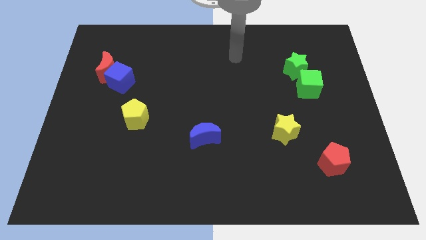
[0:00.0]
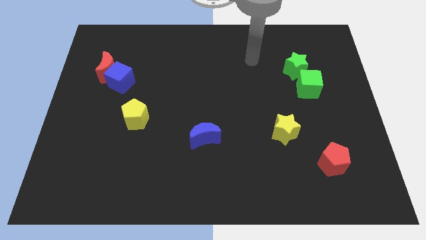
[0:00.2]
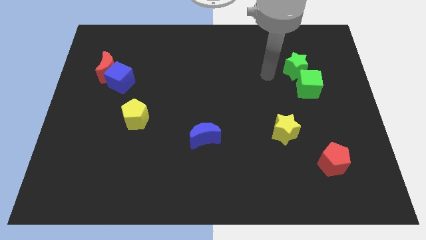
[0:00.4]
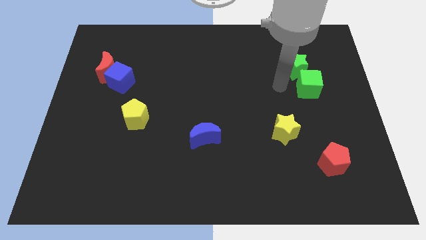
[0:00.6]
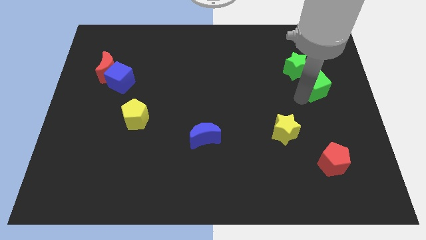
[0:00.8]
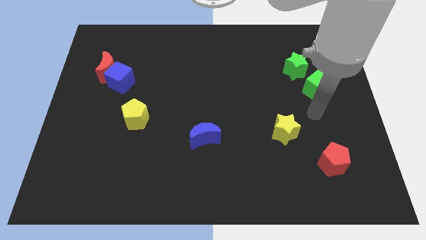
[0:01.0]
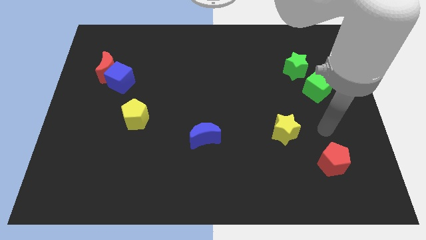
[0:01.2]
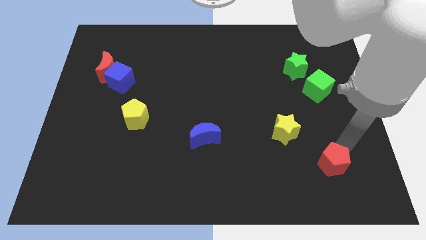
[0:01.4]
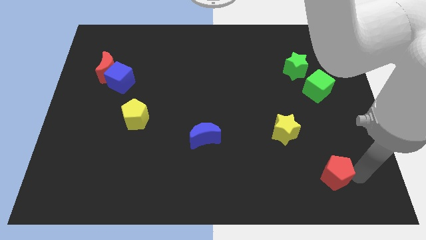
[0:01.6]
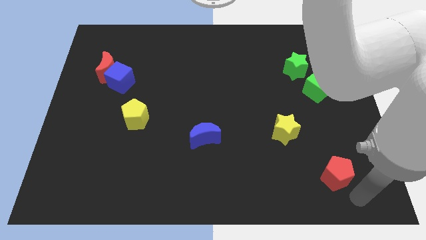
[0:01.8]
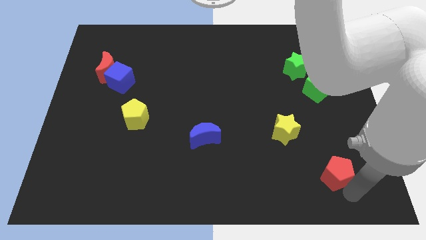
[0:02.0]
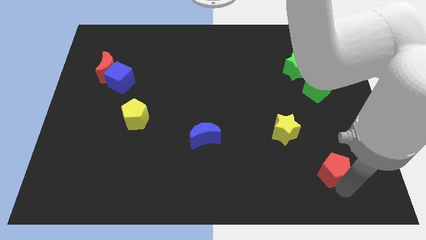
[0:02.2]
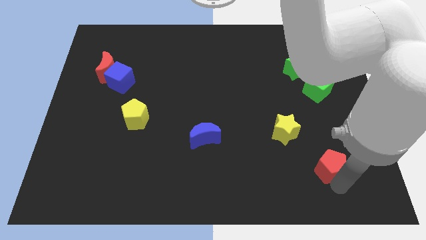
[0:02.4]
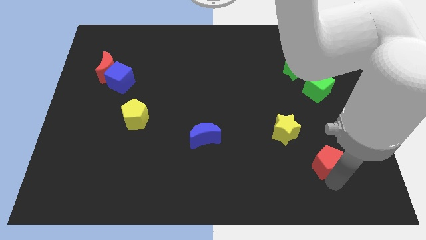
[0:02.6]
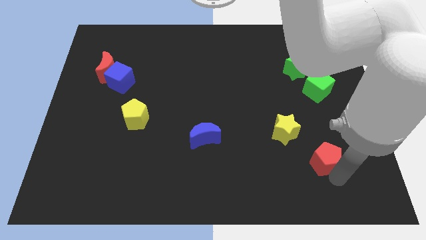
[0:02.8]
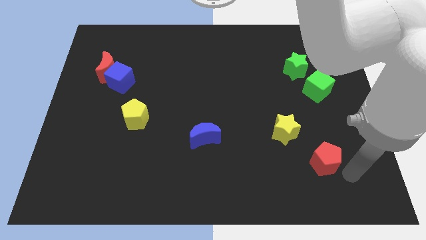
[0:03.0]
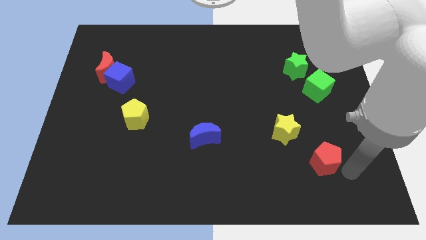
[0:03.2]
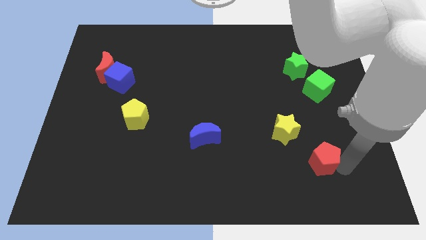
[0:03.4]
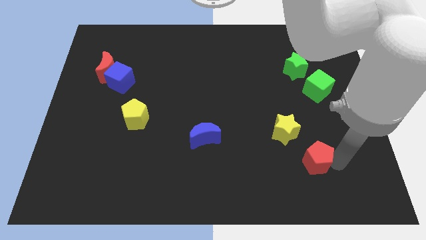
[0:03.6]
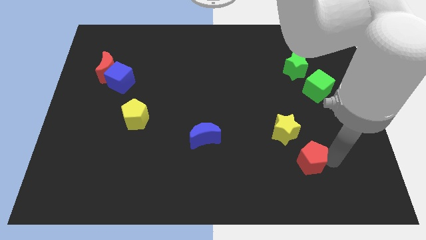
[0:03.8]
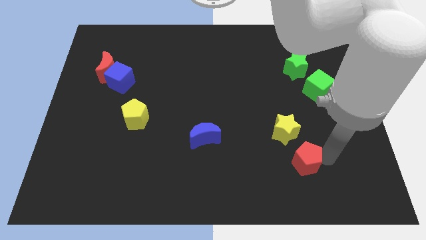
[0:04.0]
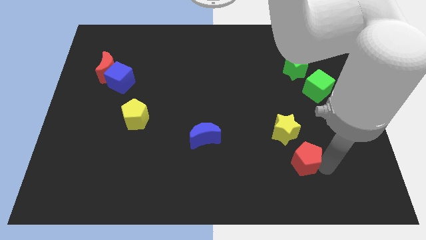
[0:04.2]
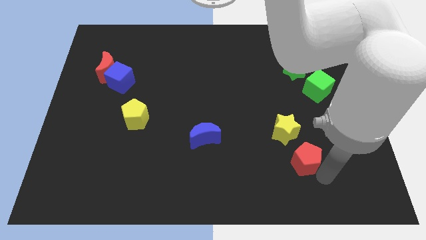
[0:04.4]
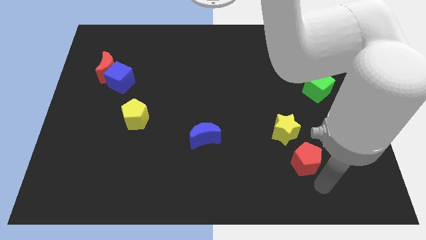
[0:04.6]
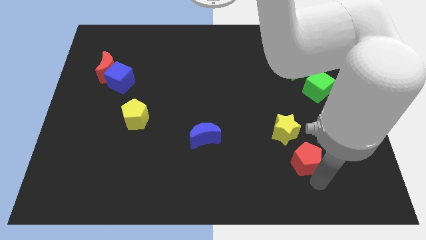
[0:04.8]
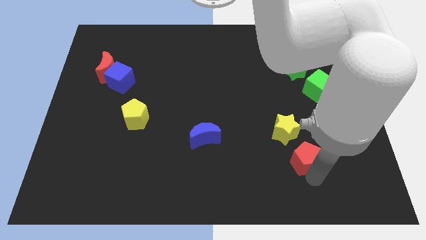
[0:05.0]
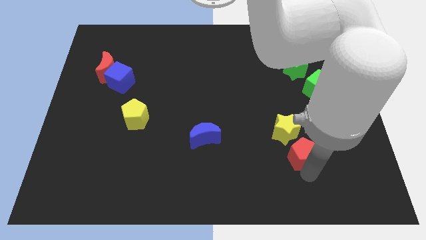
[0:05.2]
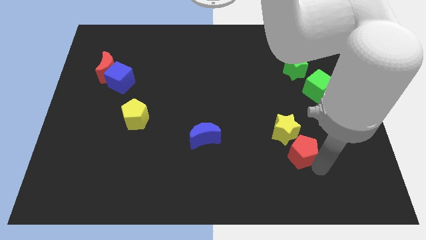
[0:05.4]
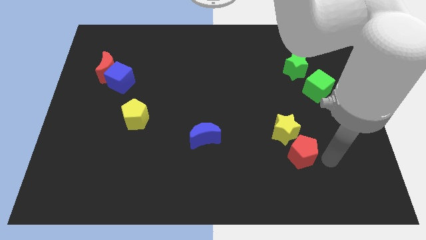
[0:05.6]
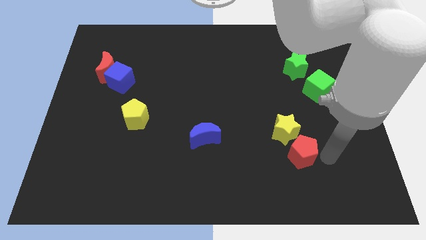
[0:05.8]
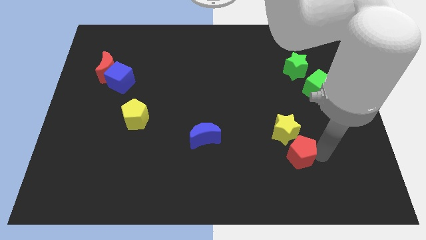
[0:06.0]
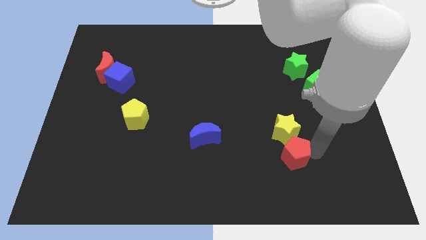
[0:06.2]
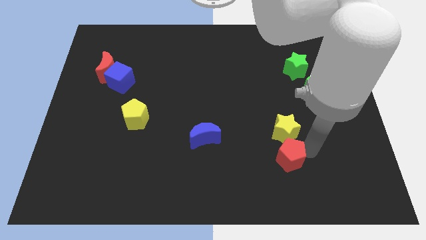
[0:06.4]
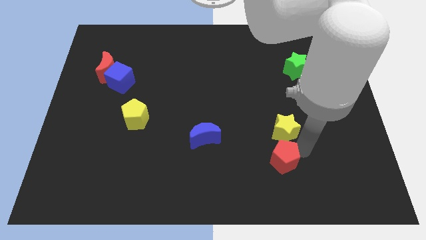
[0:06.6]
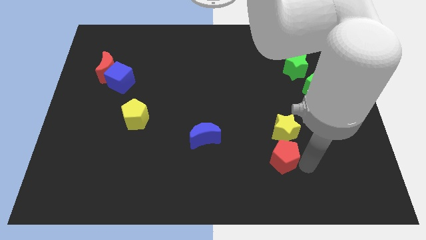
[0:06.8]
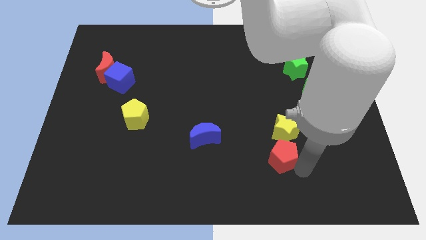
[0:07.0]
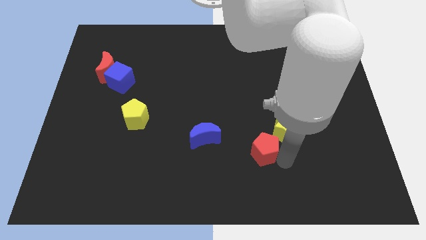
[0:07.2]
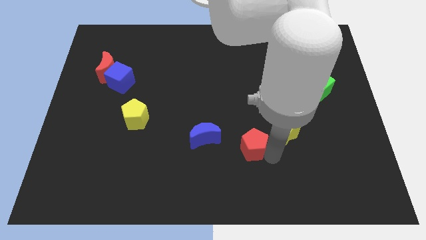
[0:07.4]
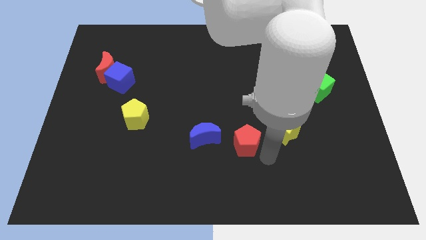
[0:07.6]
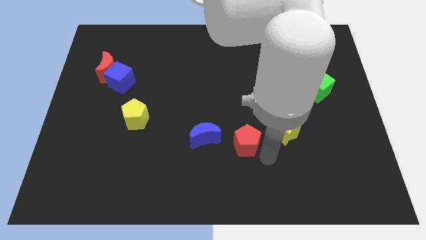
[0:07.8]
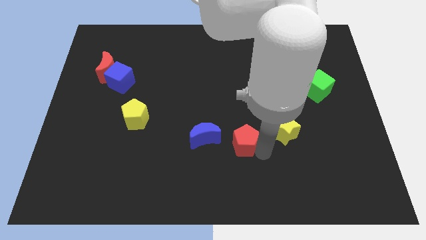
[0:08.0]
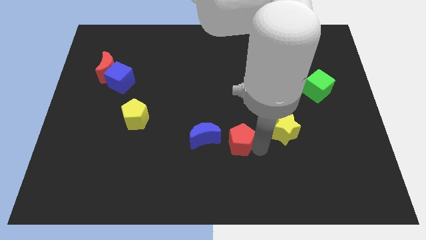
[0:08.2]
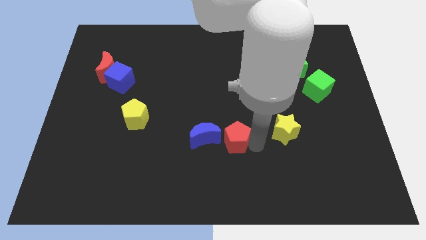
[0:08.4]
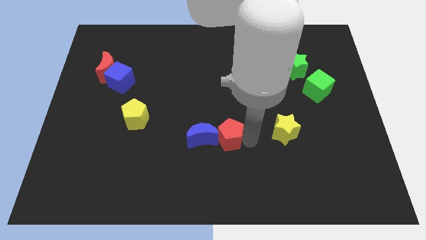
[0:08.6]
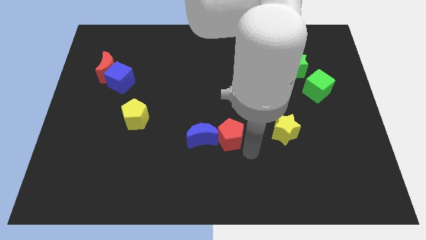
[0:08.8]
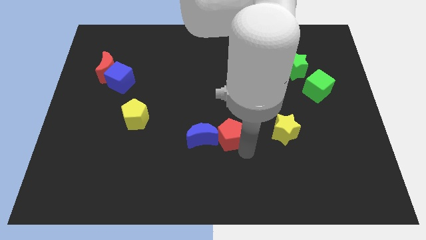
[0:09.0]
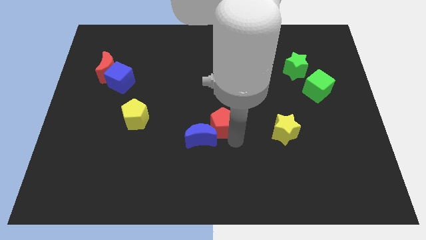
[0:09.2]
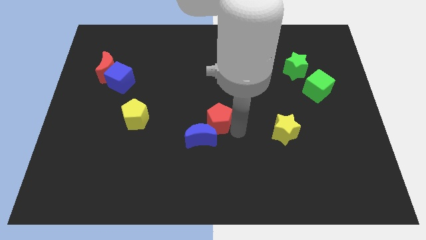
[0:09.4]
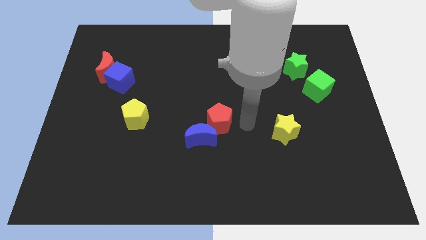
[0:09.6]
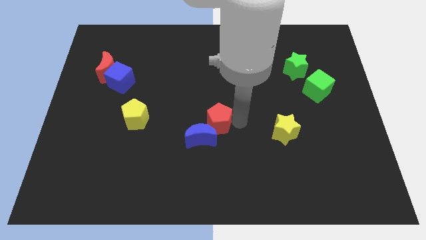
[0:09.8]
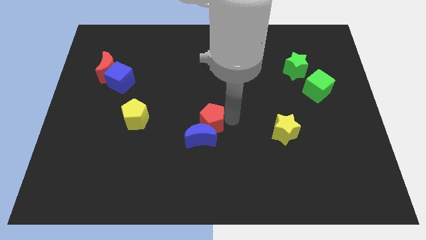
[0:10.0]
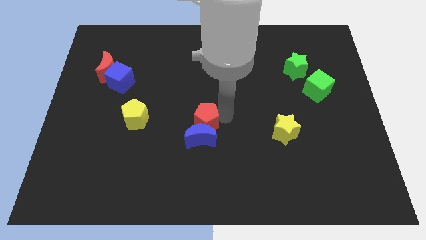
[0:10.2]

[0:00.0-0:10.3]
push the red pentagon just right of the yellow pentagon

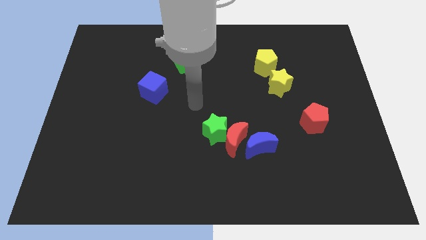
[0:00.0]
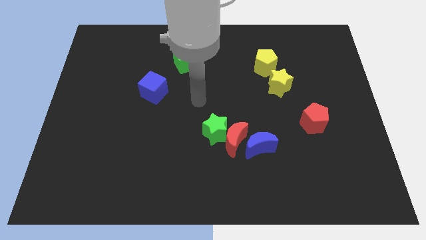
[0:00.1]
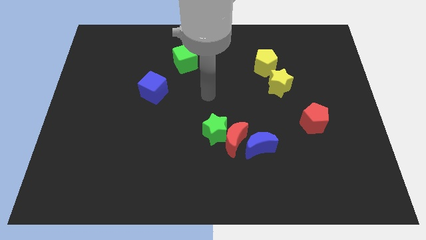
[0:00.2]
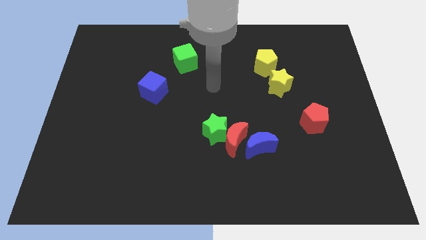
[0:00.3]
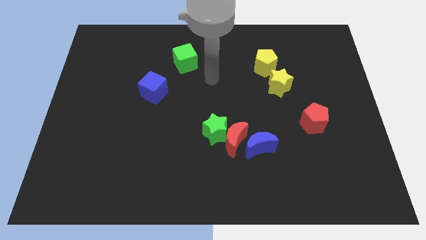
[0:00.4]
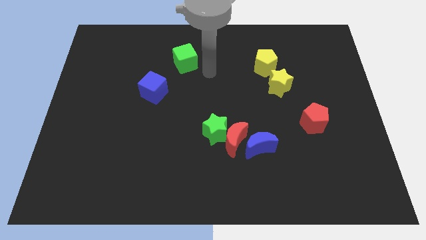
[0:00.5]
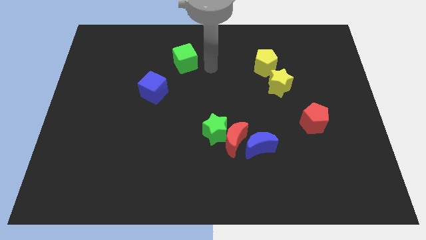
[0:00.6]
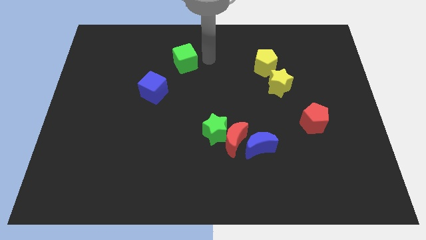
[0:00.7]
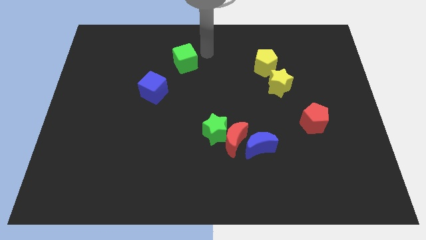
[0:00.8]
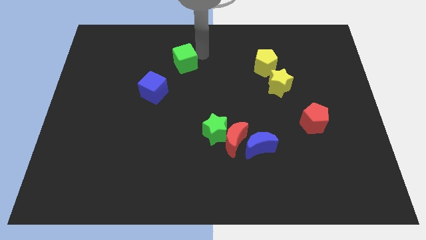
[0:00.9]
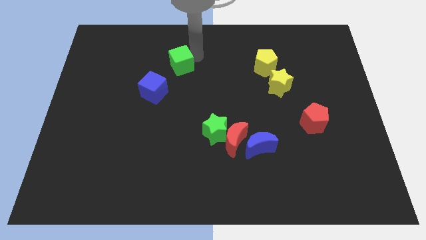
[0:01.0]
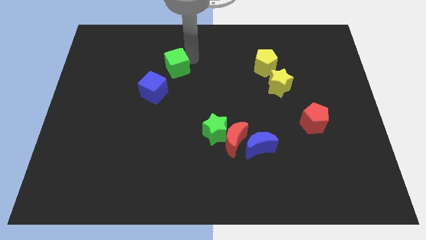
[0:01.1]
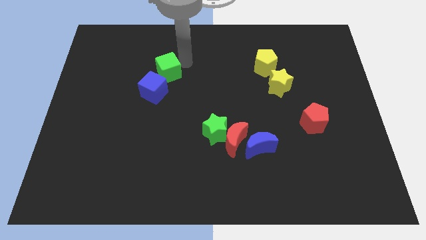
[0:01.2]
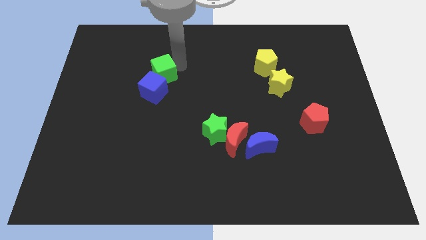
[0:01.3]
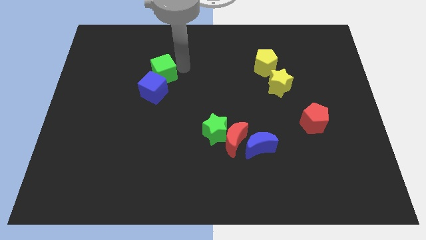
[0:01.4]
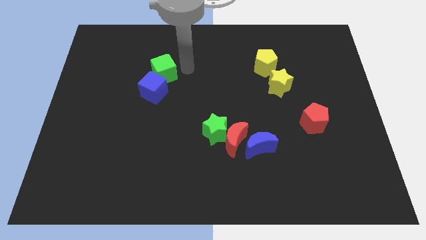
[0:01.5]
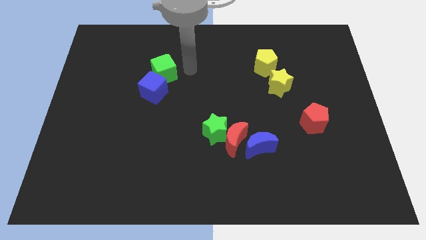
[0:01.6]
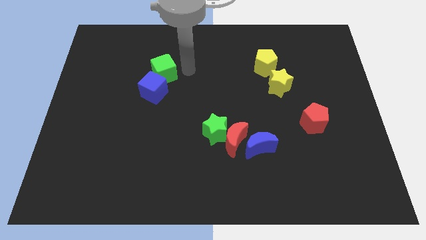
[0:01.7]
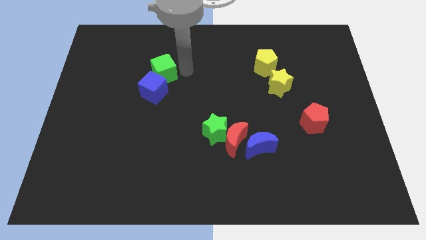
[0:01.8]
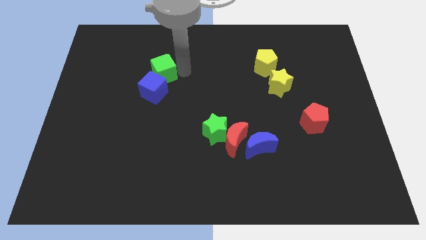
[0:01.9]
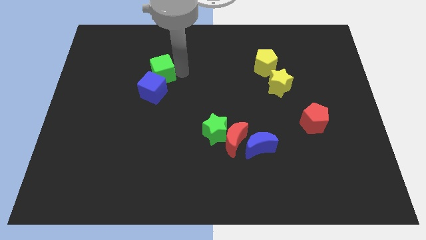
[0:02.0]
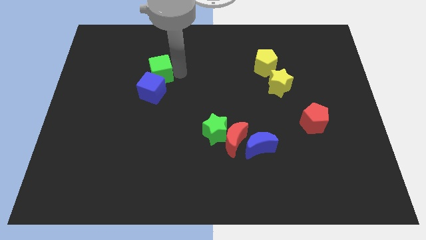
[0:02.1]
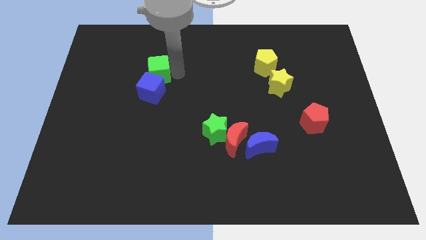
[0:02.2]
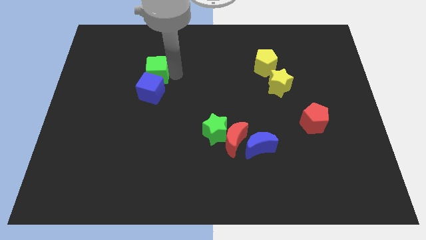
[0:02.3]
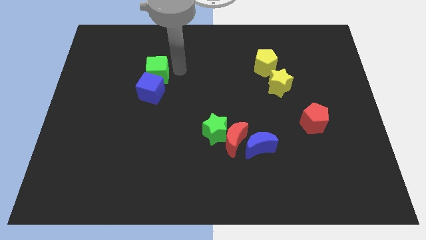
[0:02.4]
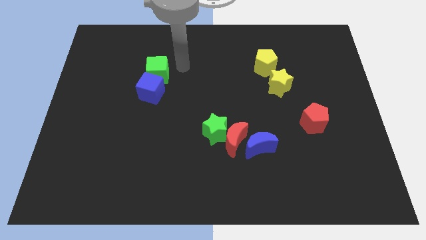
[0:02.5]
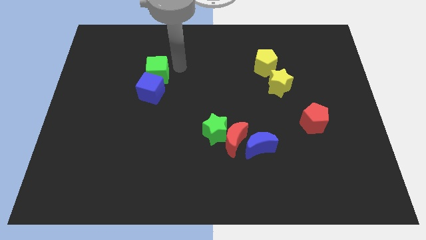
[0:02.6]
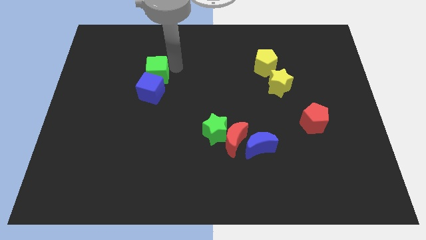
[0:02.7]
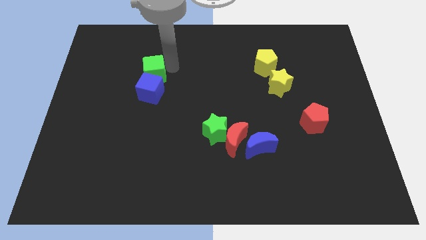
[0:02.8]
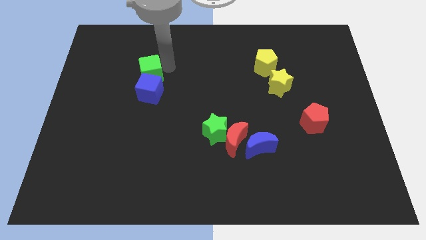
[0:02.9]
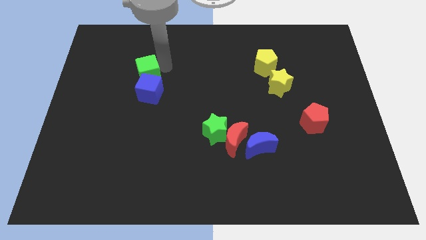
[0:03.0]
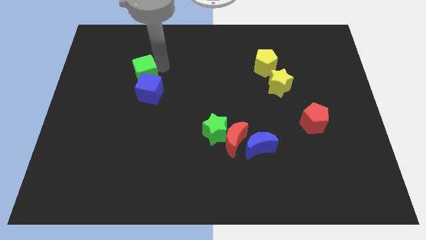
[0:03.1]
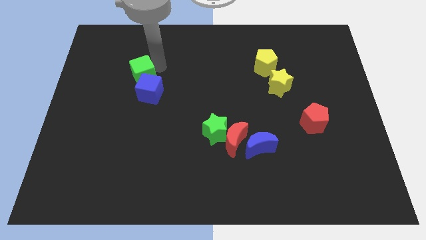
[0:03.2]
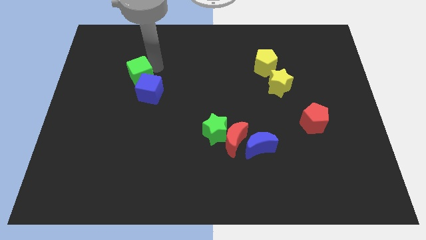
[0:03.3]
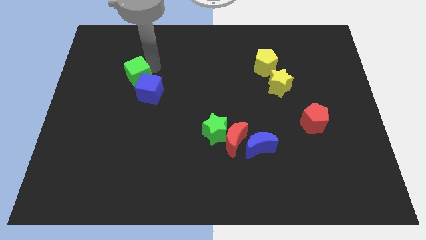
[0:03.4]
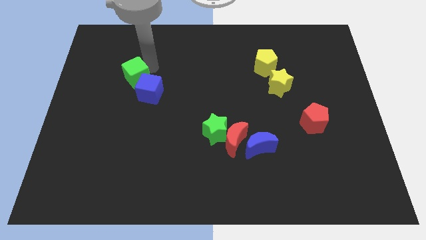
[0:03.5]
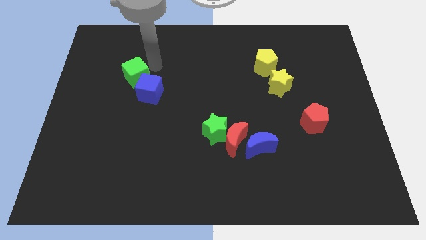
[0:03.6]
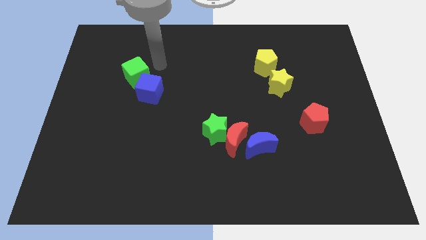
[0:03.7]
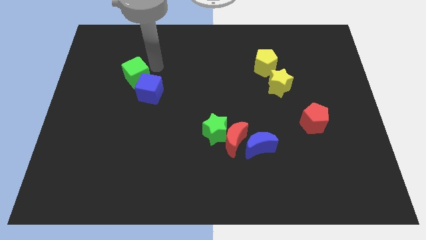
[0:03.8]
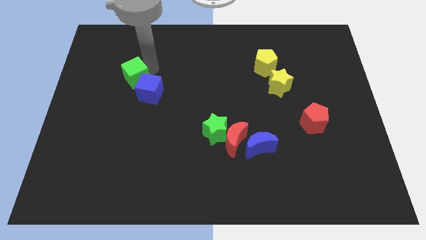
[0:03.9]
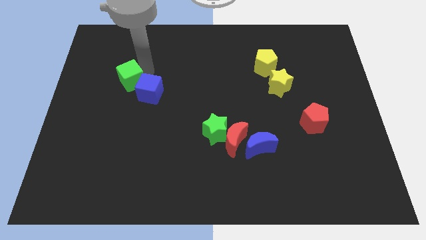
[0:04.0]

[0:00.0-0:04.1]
put the green cube left of the blue cube
